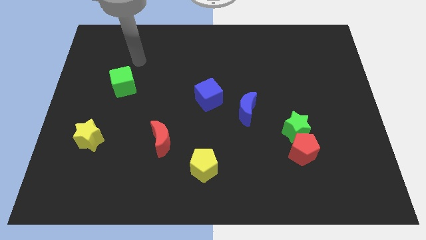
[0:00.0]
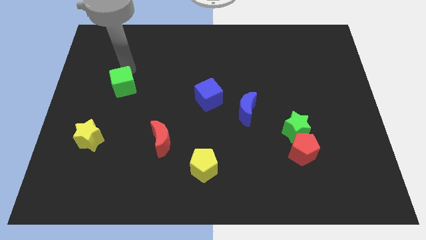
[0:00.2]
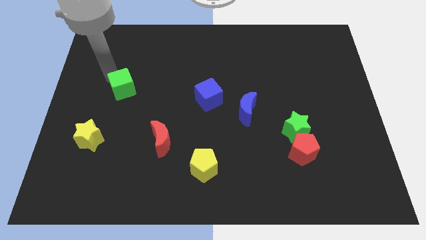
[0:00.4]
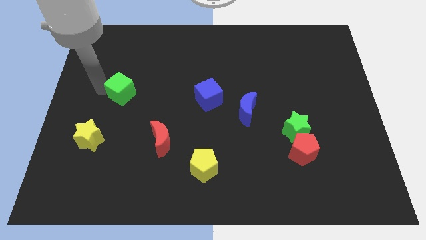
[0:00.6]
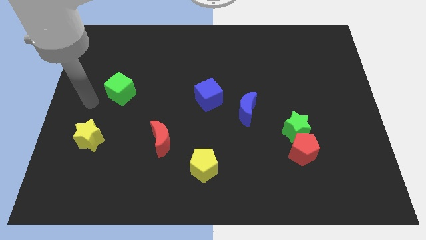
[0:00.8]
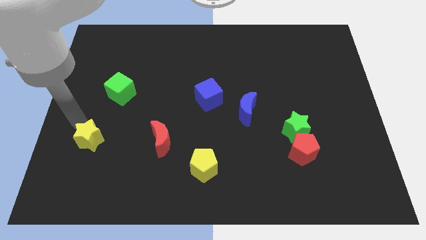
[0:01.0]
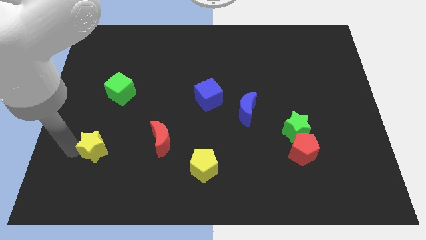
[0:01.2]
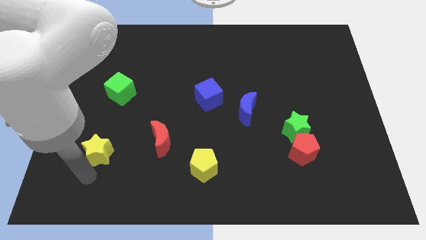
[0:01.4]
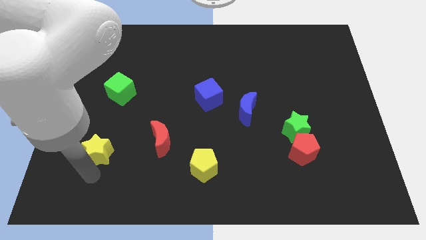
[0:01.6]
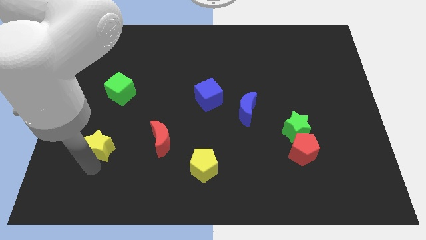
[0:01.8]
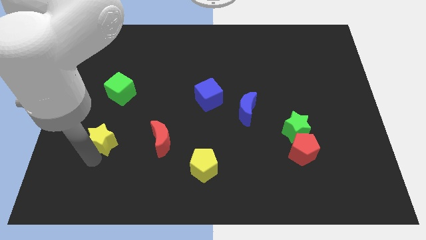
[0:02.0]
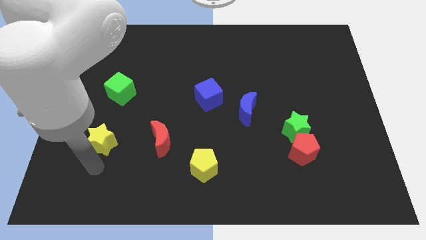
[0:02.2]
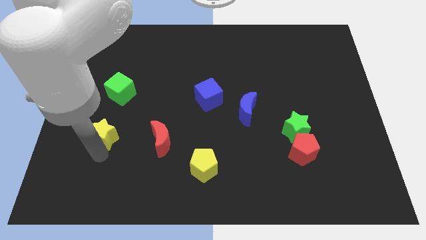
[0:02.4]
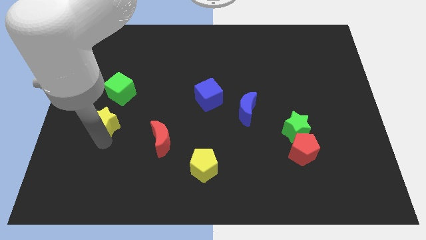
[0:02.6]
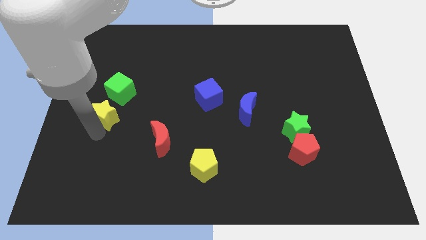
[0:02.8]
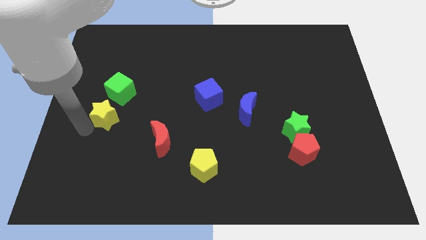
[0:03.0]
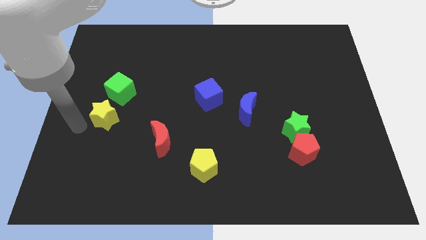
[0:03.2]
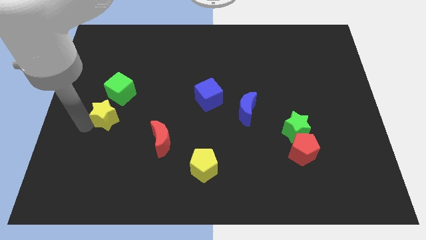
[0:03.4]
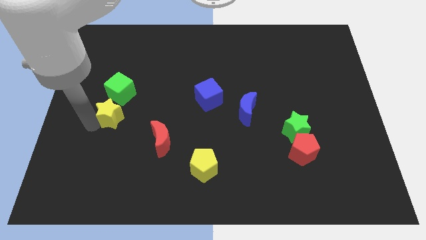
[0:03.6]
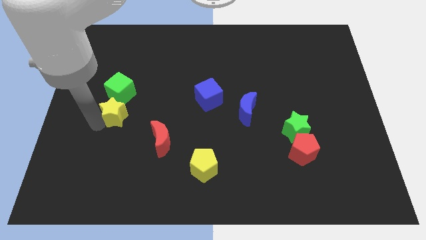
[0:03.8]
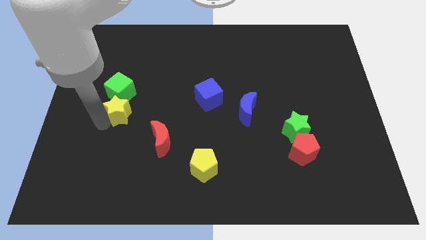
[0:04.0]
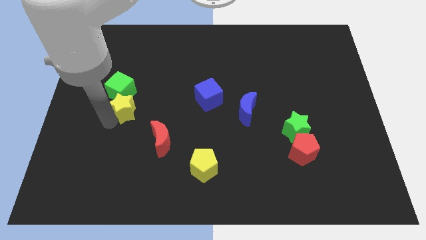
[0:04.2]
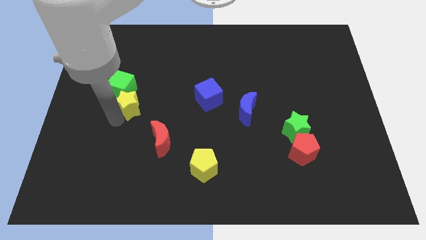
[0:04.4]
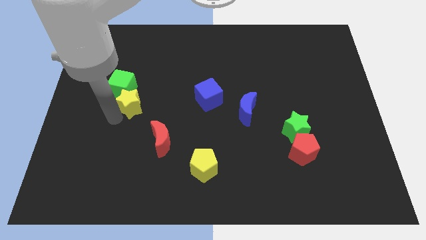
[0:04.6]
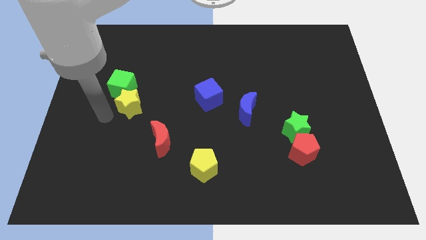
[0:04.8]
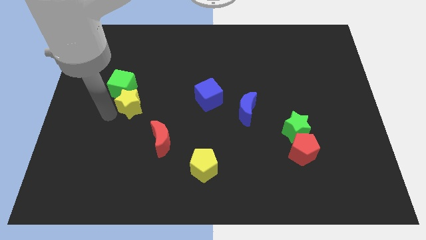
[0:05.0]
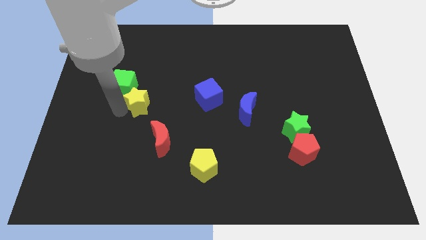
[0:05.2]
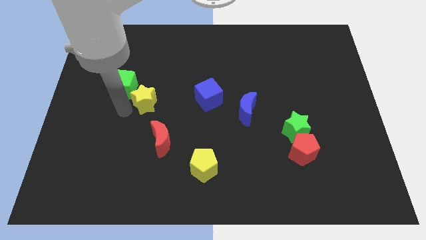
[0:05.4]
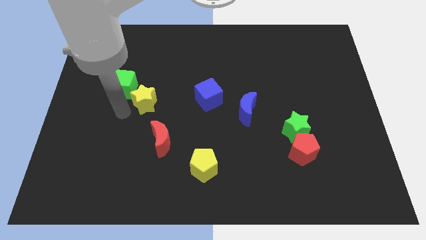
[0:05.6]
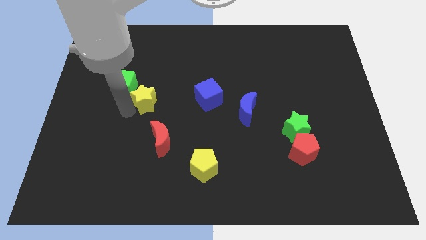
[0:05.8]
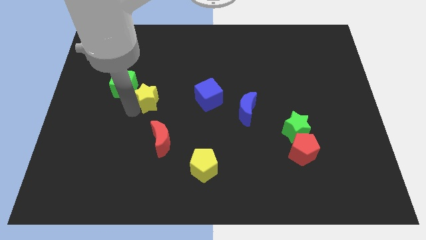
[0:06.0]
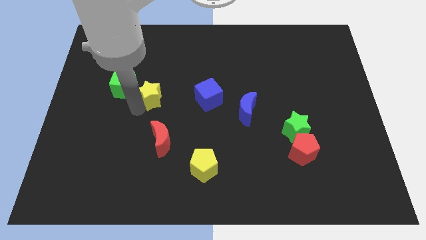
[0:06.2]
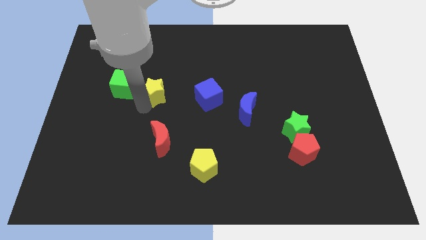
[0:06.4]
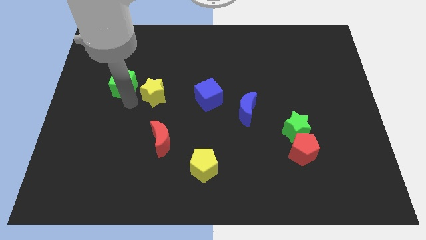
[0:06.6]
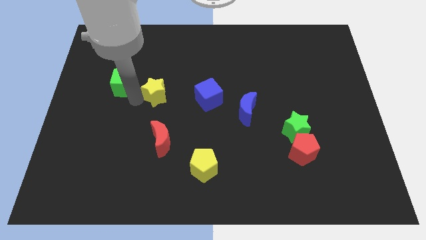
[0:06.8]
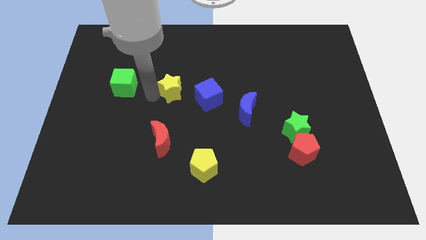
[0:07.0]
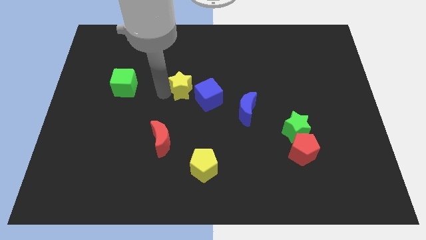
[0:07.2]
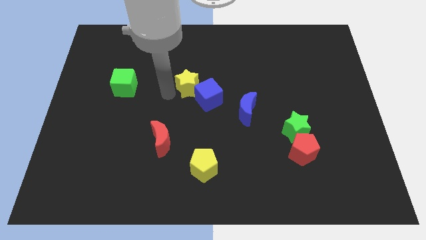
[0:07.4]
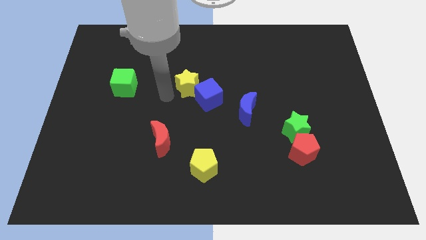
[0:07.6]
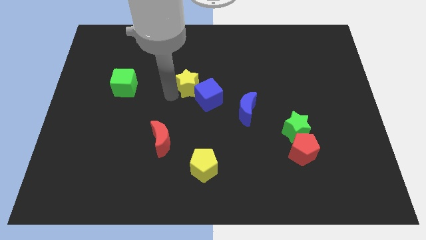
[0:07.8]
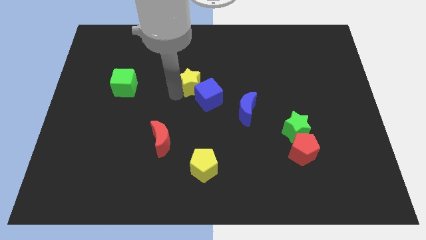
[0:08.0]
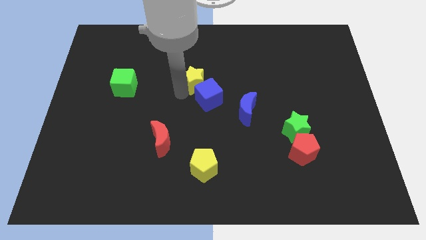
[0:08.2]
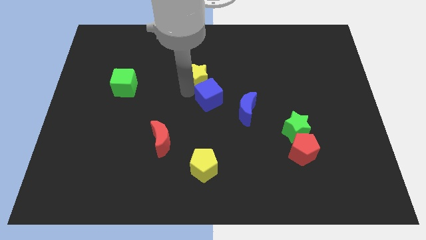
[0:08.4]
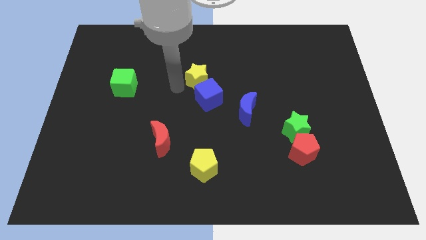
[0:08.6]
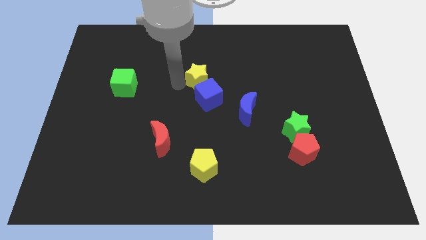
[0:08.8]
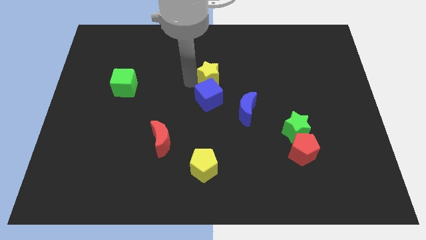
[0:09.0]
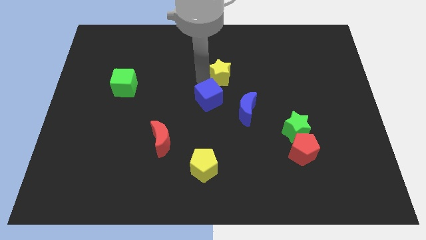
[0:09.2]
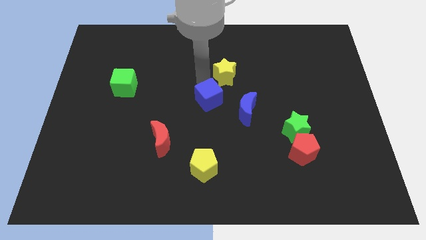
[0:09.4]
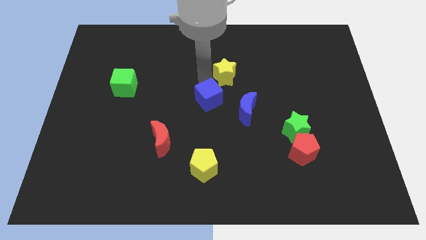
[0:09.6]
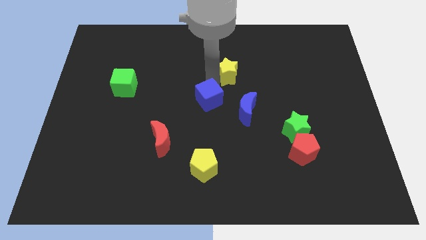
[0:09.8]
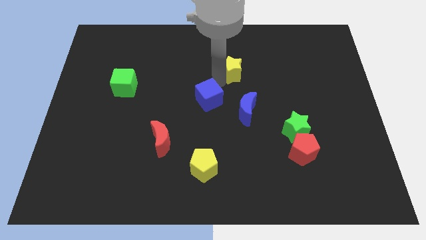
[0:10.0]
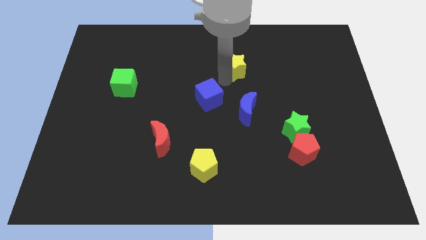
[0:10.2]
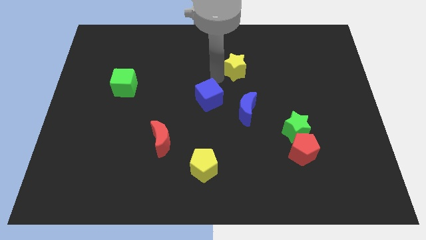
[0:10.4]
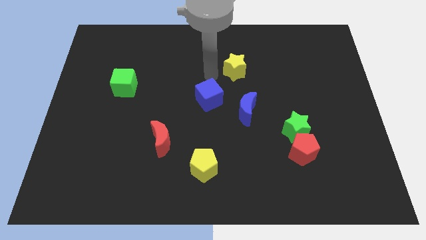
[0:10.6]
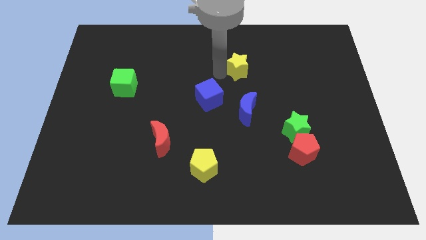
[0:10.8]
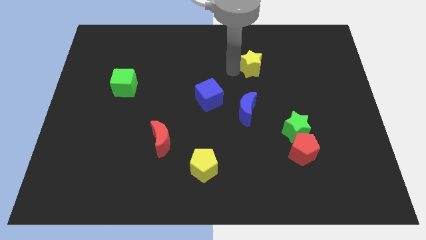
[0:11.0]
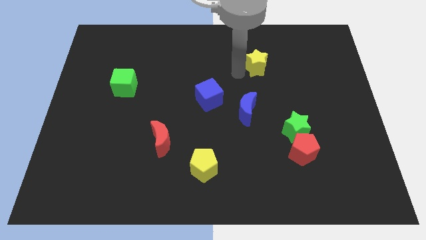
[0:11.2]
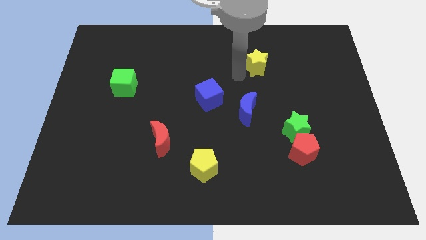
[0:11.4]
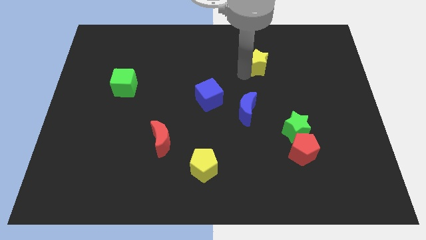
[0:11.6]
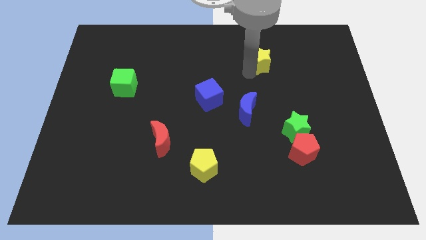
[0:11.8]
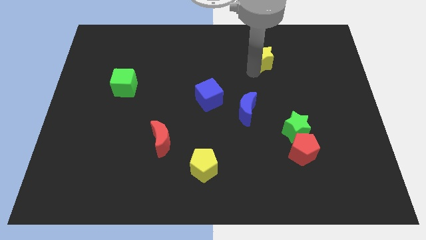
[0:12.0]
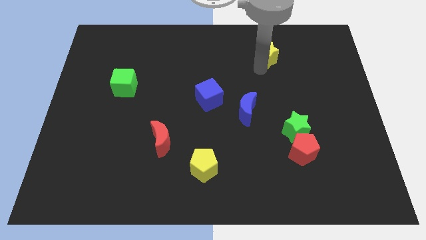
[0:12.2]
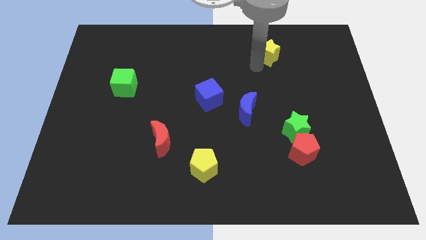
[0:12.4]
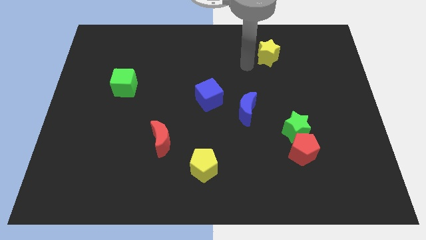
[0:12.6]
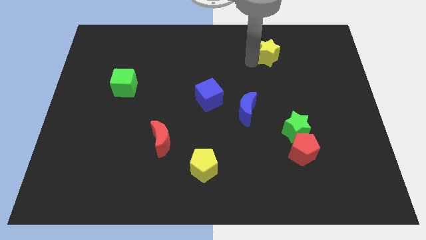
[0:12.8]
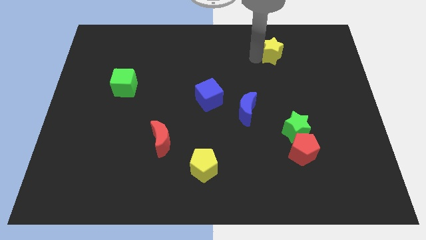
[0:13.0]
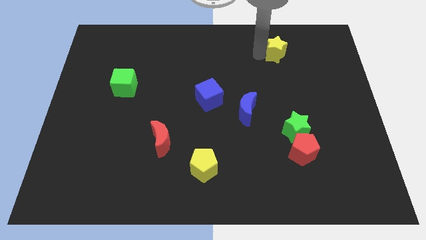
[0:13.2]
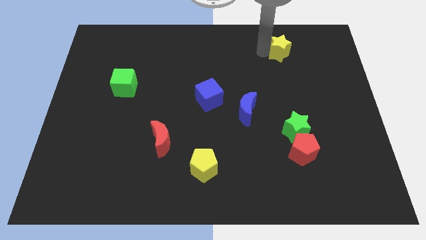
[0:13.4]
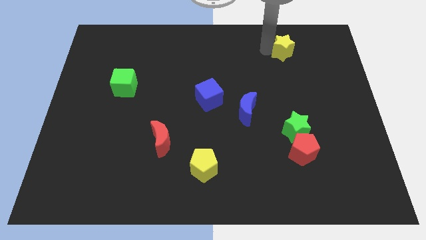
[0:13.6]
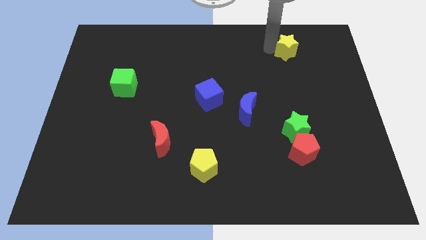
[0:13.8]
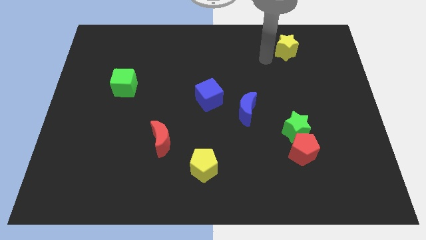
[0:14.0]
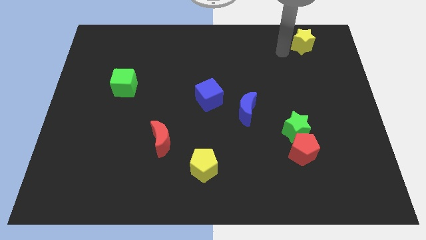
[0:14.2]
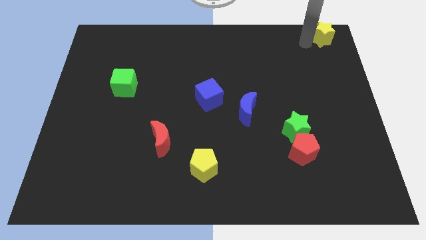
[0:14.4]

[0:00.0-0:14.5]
move the yellow star to the top right corner
